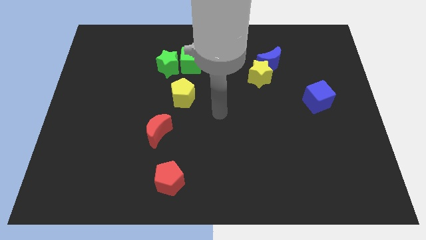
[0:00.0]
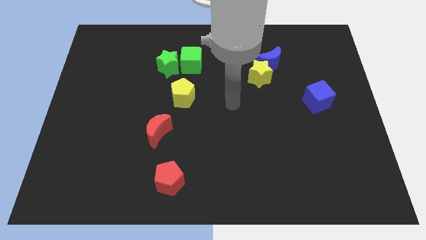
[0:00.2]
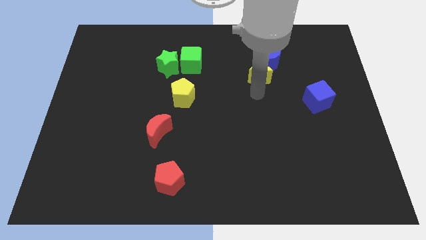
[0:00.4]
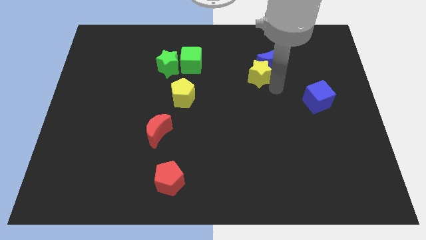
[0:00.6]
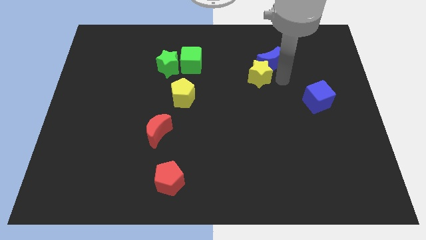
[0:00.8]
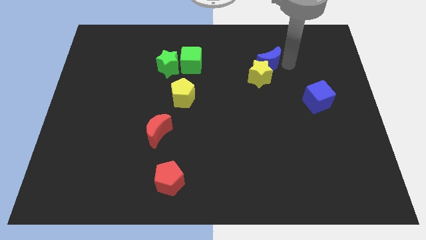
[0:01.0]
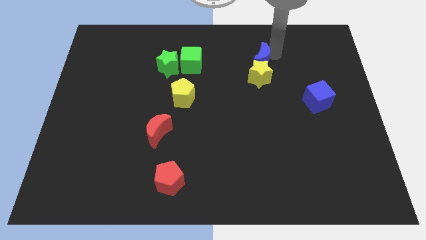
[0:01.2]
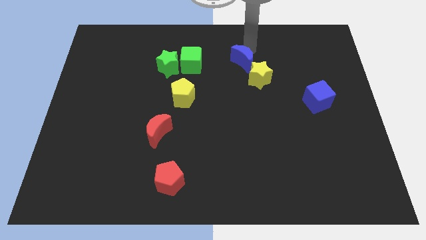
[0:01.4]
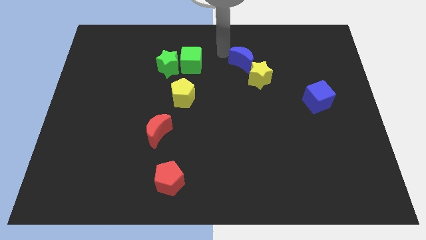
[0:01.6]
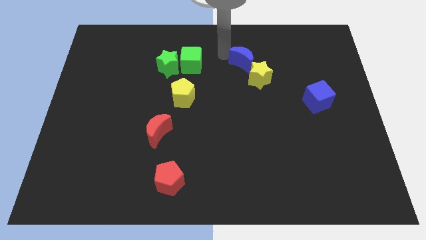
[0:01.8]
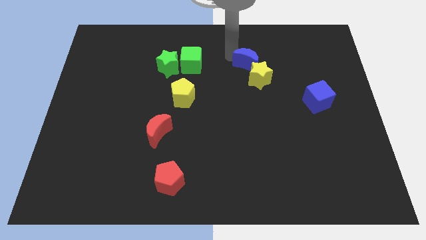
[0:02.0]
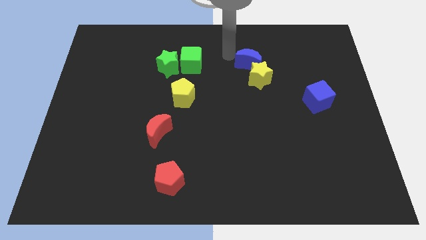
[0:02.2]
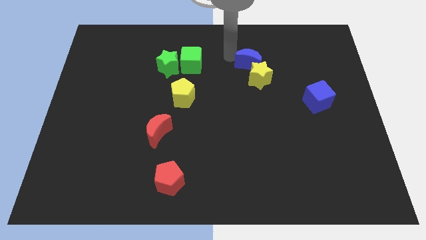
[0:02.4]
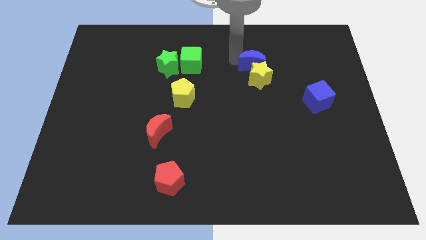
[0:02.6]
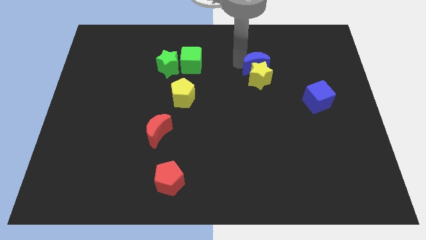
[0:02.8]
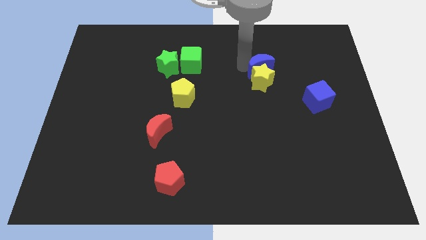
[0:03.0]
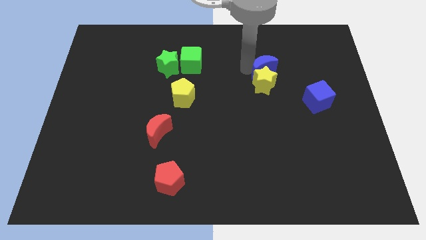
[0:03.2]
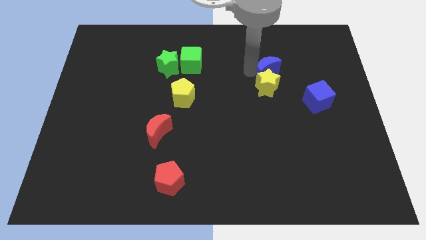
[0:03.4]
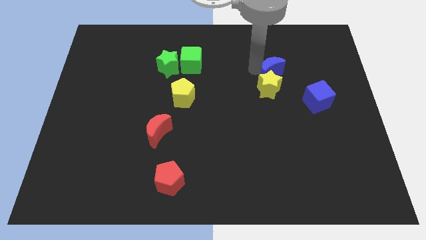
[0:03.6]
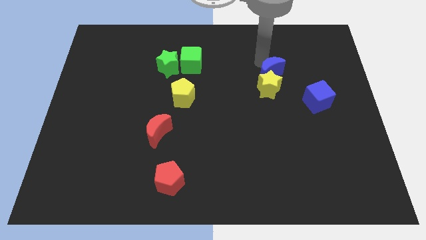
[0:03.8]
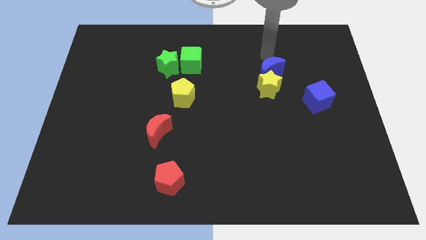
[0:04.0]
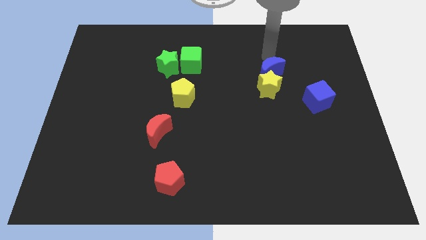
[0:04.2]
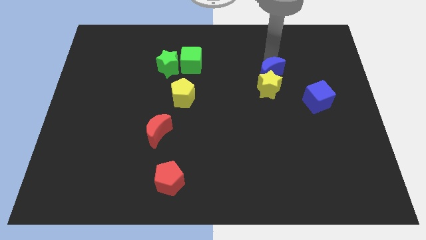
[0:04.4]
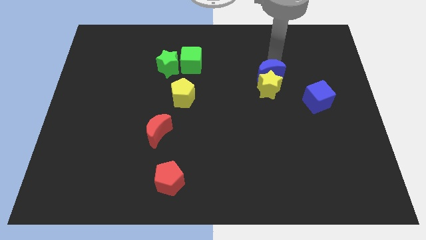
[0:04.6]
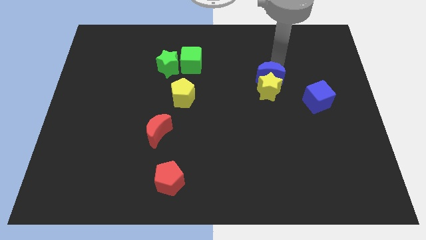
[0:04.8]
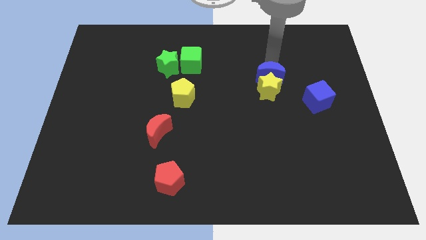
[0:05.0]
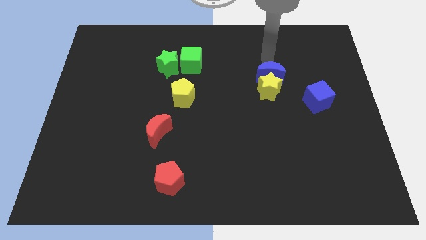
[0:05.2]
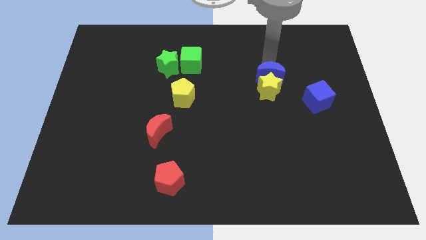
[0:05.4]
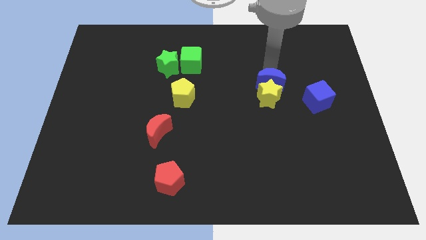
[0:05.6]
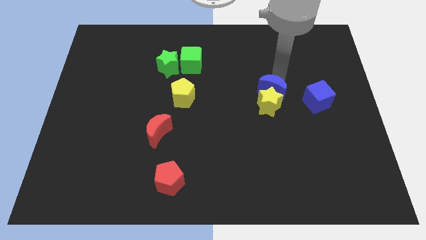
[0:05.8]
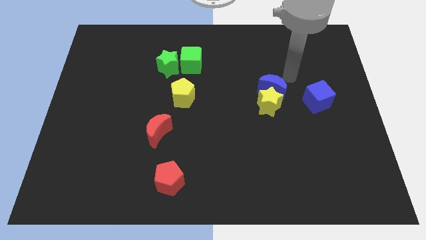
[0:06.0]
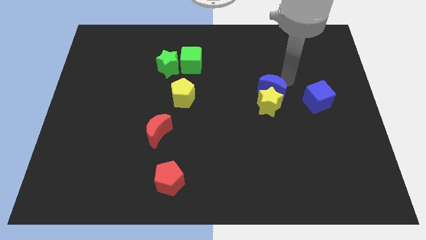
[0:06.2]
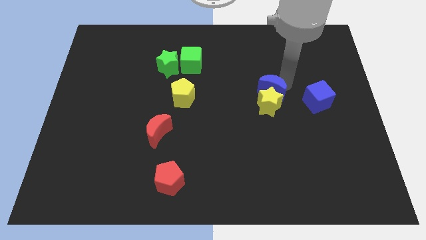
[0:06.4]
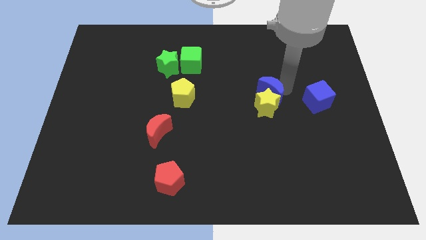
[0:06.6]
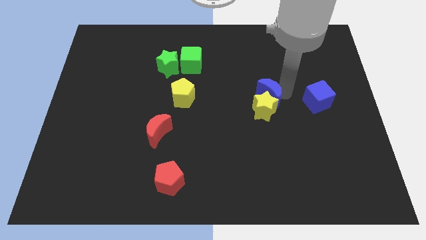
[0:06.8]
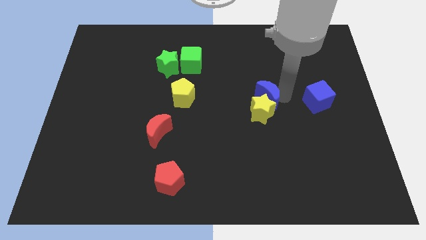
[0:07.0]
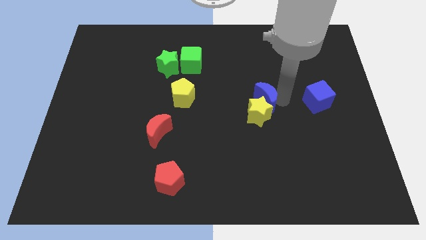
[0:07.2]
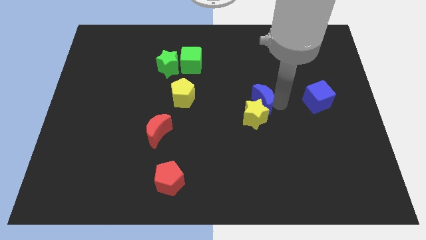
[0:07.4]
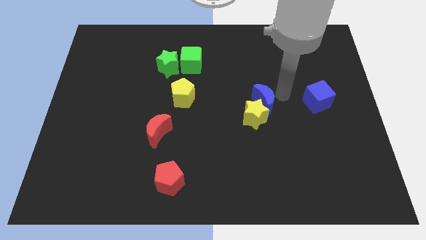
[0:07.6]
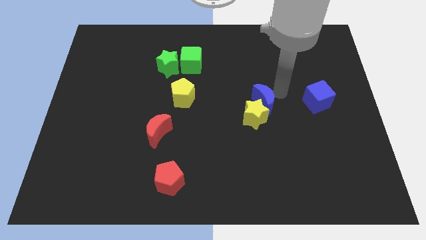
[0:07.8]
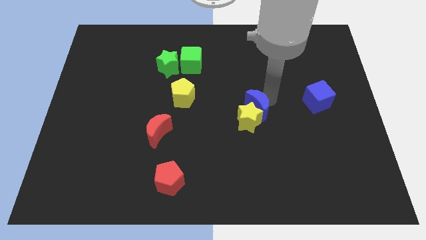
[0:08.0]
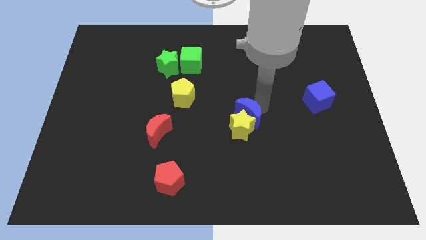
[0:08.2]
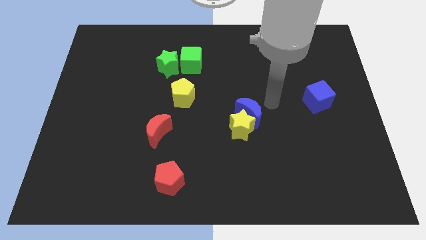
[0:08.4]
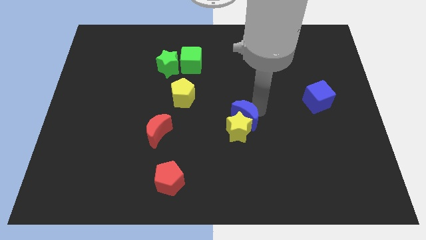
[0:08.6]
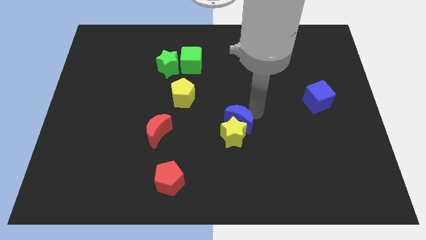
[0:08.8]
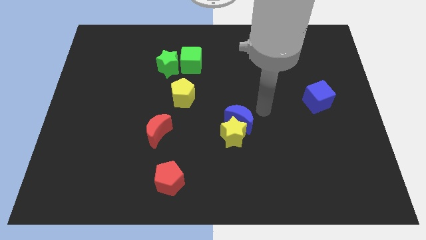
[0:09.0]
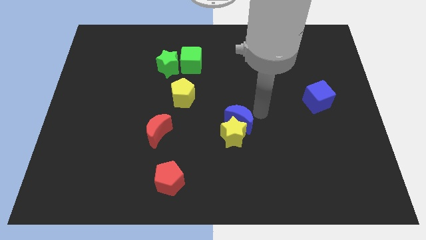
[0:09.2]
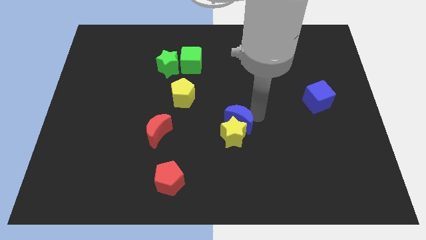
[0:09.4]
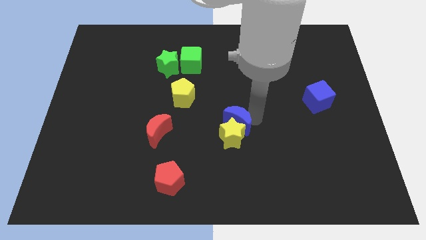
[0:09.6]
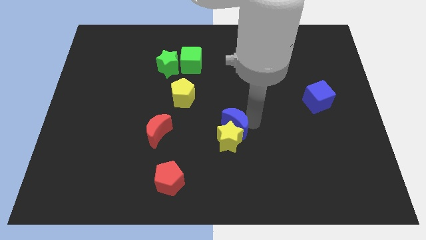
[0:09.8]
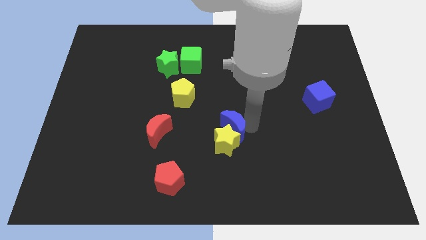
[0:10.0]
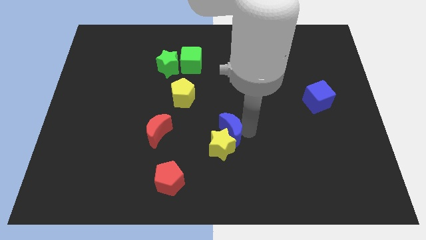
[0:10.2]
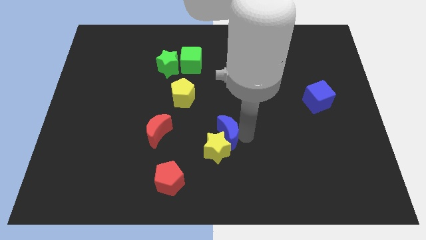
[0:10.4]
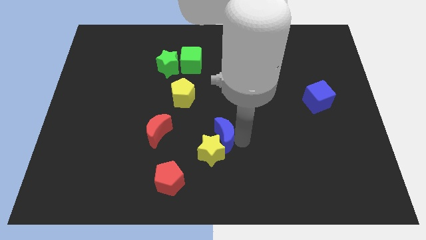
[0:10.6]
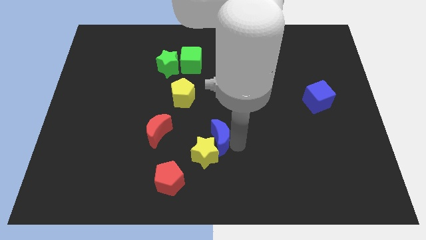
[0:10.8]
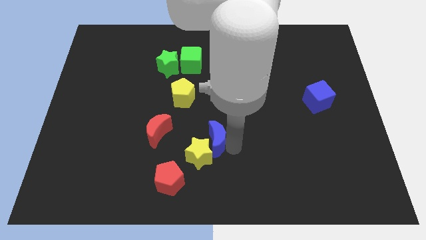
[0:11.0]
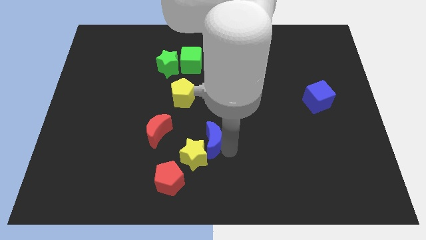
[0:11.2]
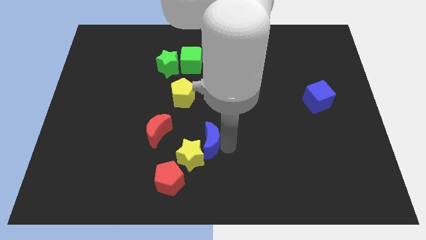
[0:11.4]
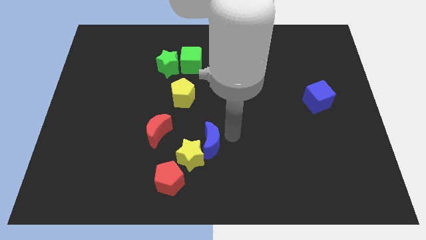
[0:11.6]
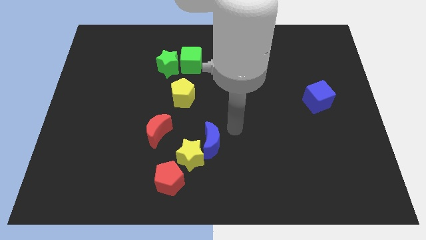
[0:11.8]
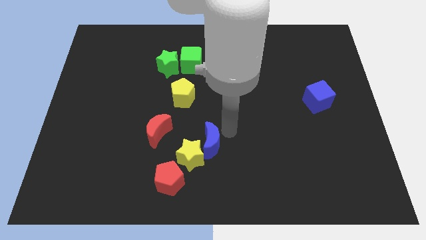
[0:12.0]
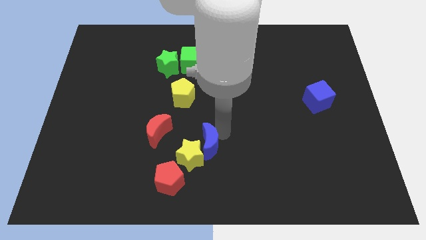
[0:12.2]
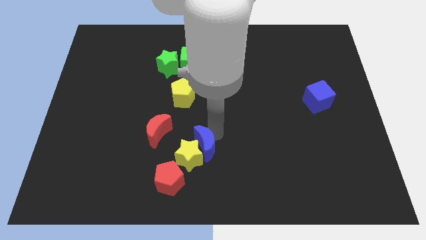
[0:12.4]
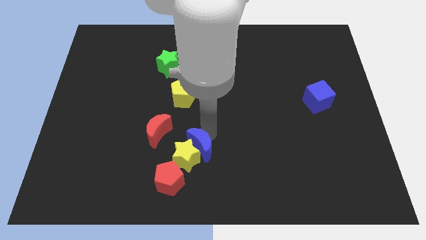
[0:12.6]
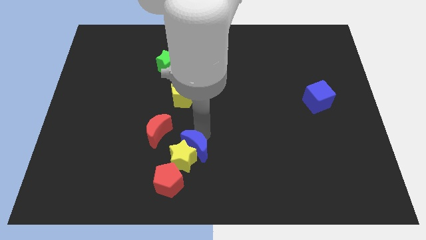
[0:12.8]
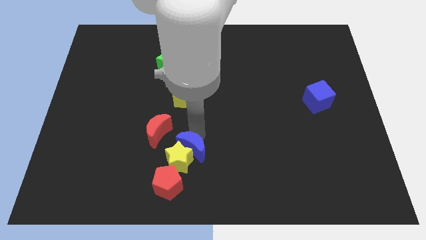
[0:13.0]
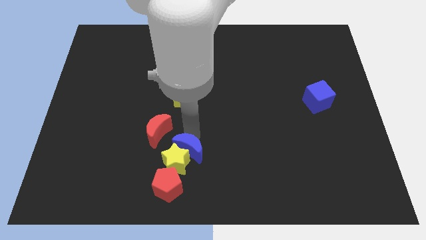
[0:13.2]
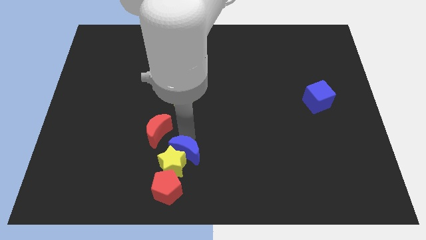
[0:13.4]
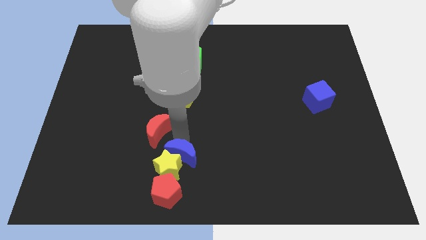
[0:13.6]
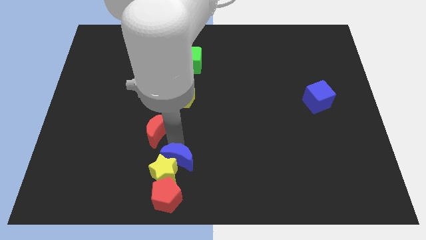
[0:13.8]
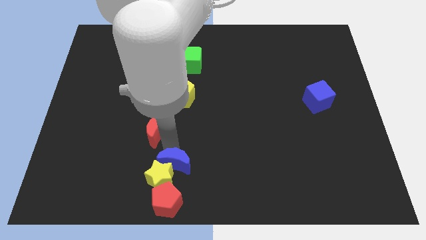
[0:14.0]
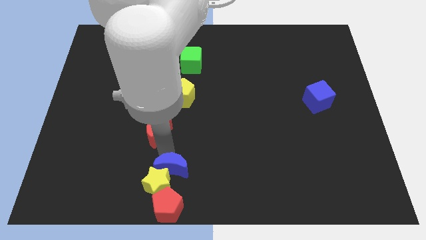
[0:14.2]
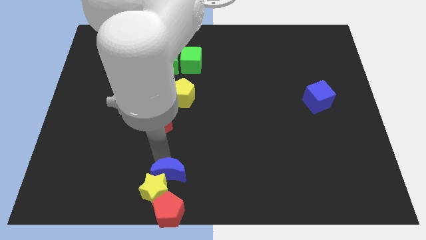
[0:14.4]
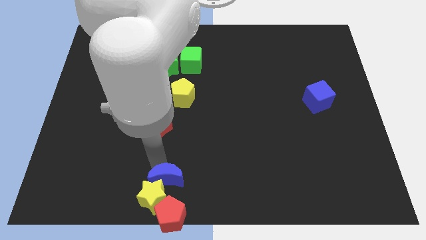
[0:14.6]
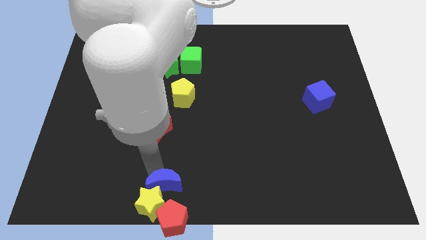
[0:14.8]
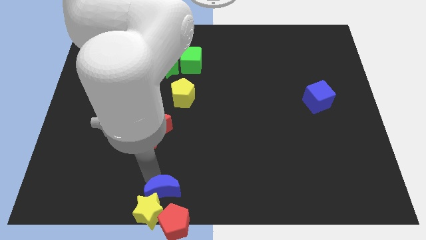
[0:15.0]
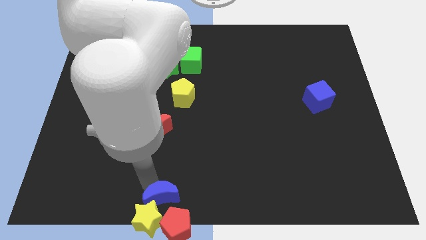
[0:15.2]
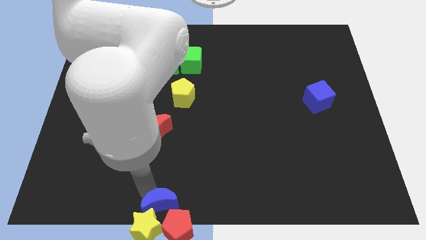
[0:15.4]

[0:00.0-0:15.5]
move the blue moon close to the red pentagon
